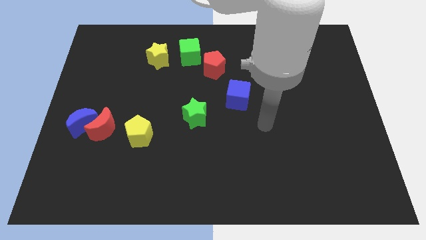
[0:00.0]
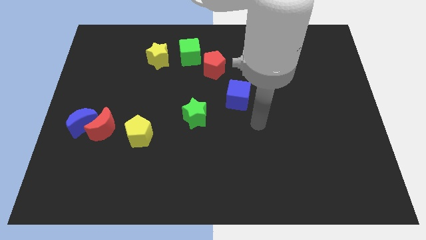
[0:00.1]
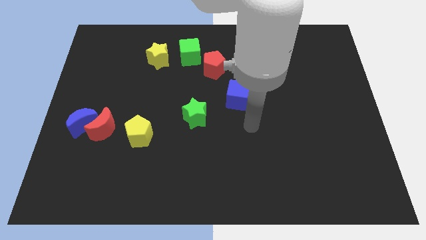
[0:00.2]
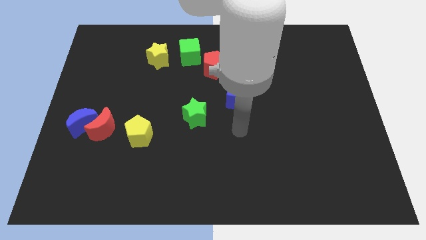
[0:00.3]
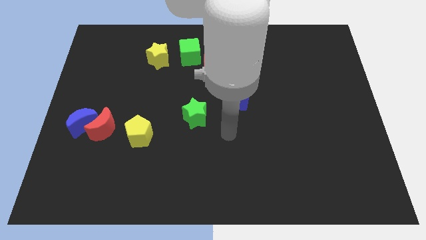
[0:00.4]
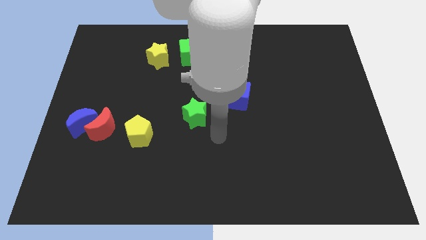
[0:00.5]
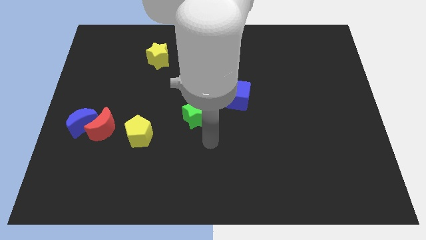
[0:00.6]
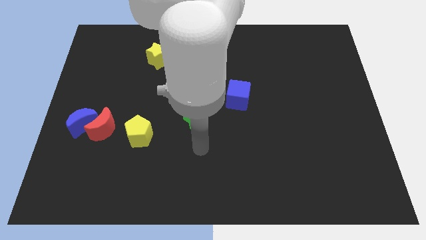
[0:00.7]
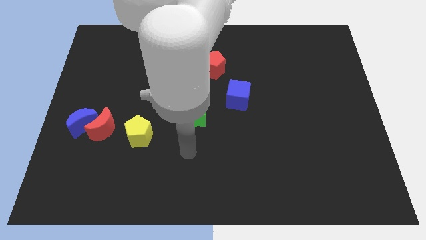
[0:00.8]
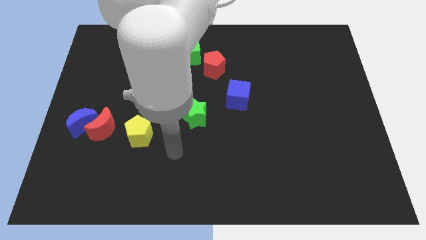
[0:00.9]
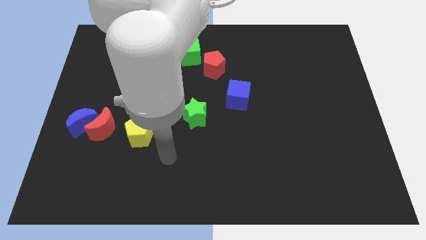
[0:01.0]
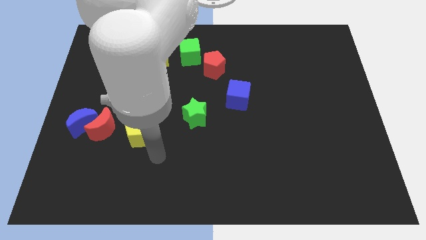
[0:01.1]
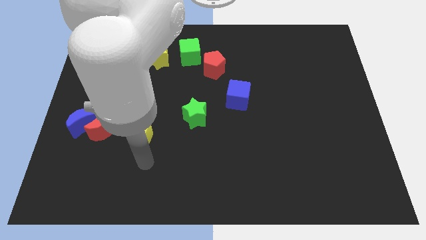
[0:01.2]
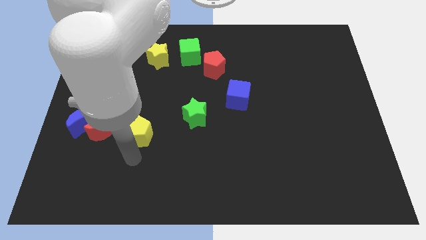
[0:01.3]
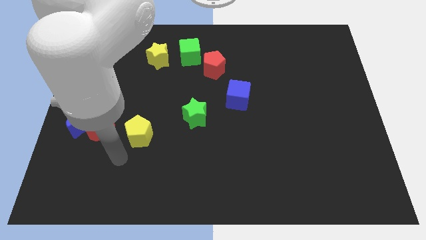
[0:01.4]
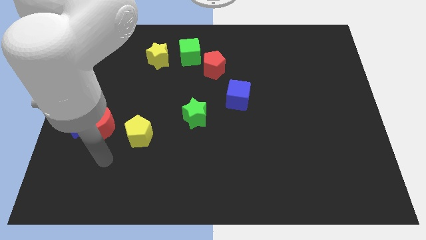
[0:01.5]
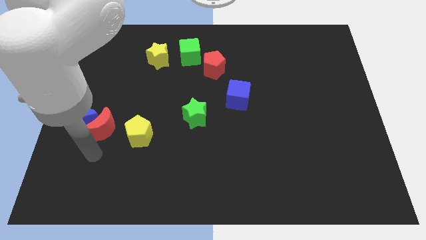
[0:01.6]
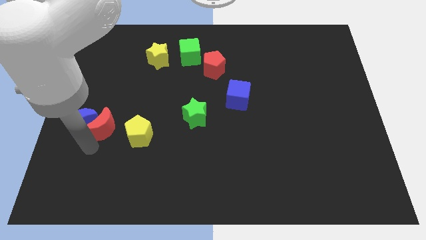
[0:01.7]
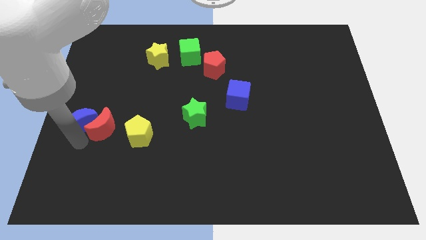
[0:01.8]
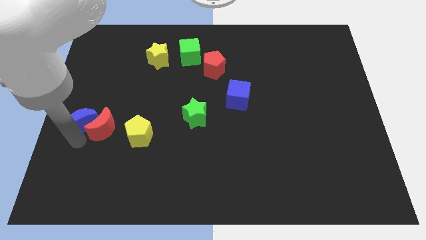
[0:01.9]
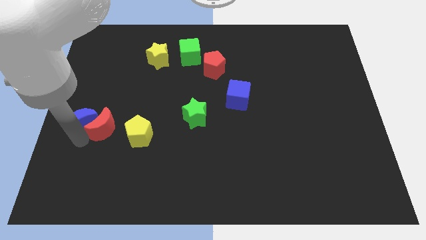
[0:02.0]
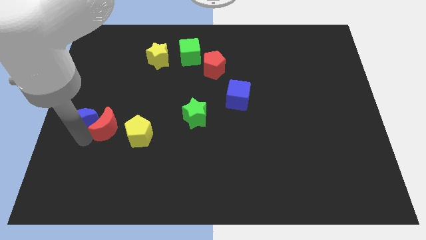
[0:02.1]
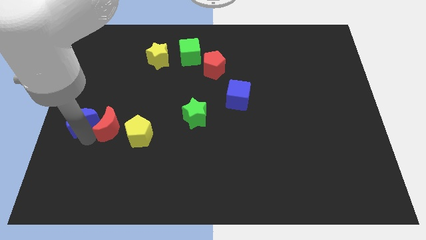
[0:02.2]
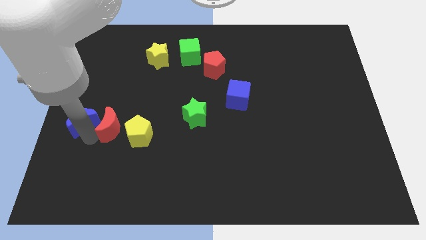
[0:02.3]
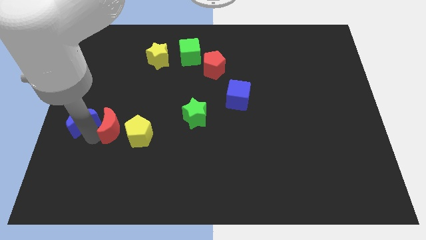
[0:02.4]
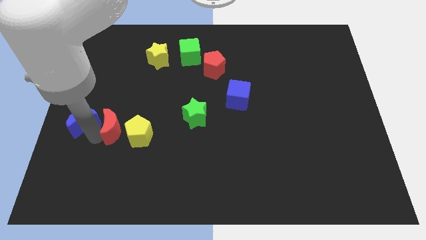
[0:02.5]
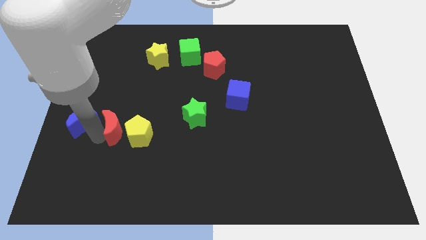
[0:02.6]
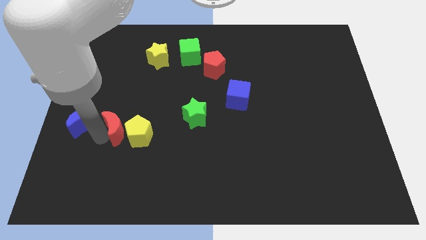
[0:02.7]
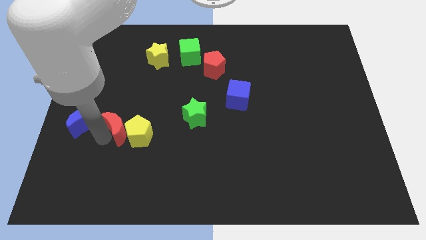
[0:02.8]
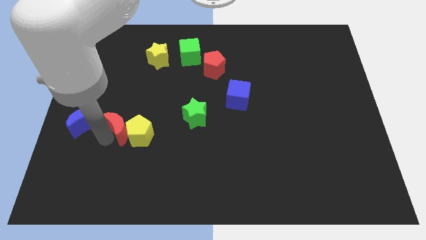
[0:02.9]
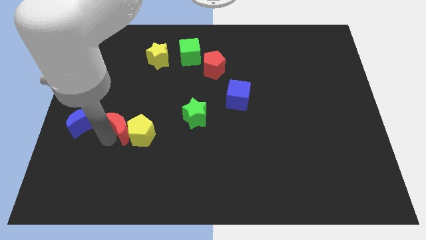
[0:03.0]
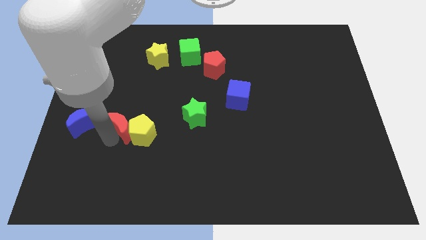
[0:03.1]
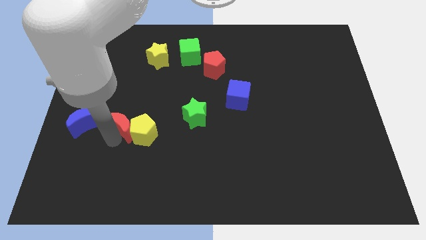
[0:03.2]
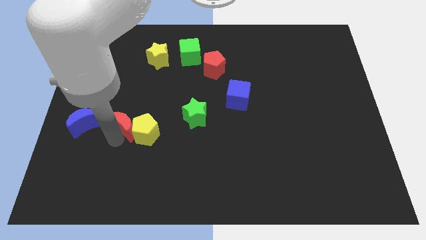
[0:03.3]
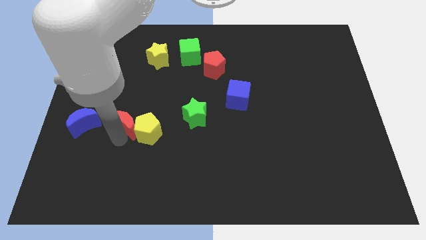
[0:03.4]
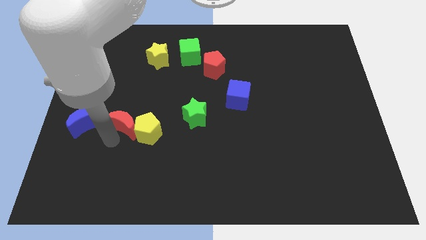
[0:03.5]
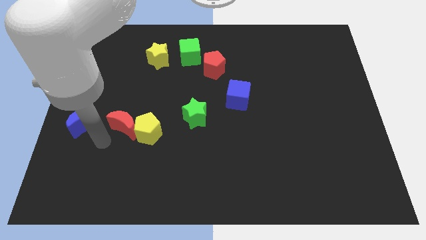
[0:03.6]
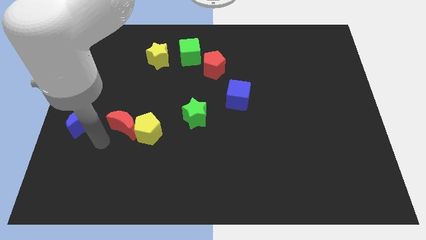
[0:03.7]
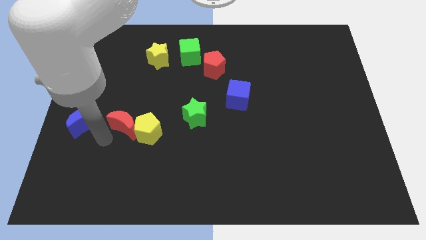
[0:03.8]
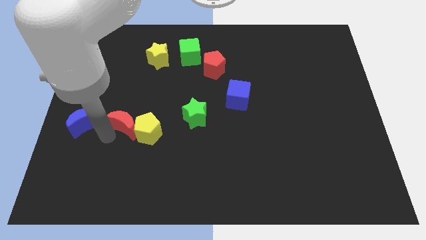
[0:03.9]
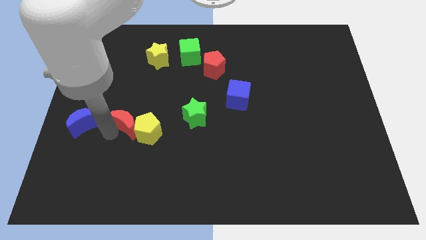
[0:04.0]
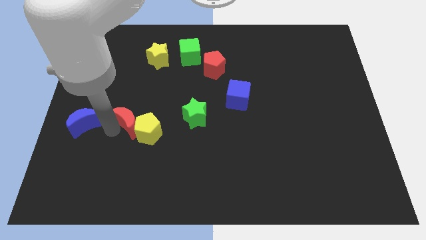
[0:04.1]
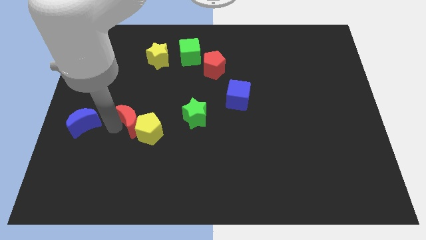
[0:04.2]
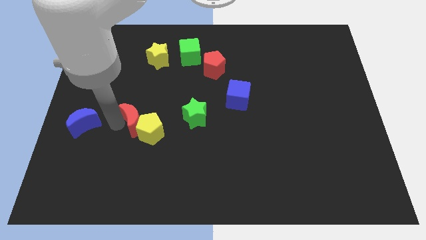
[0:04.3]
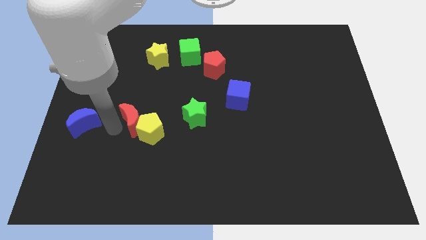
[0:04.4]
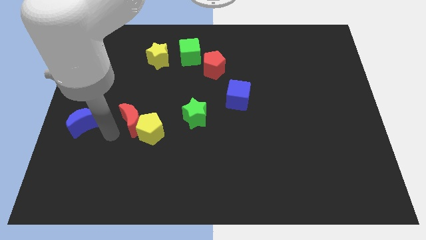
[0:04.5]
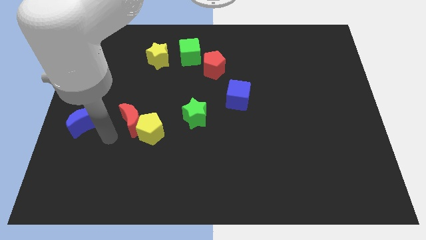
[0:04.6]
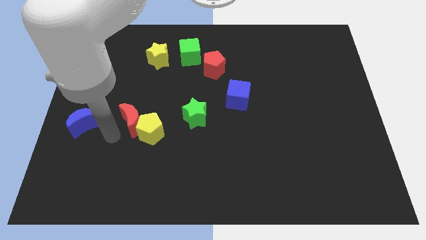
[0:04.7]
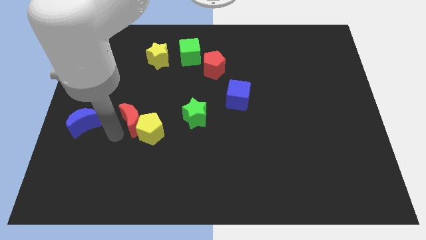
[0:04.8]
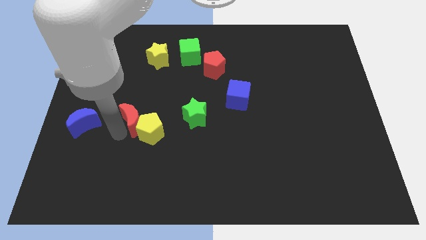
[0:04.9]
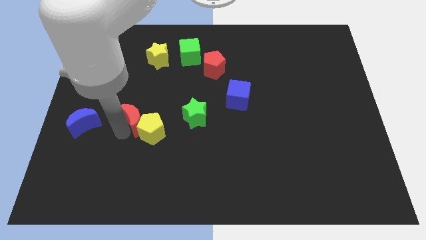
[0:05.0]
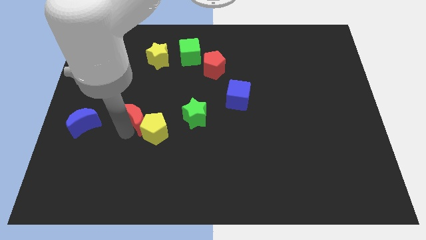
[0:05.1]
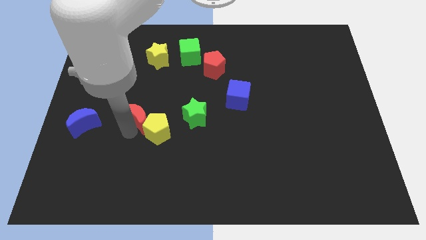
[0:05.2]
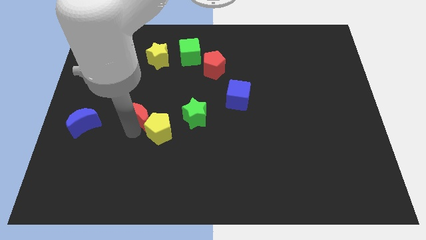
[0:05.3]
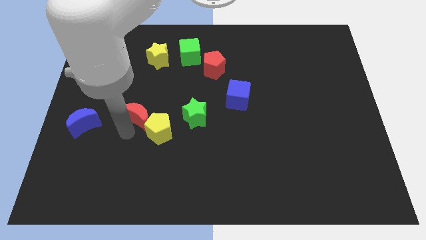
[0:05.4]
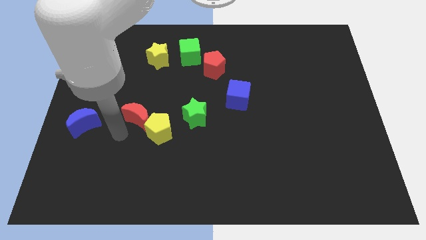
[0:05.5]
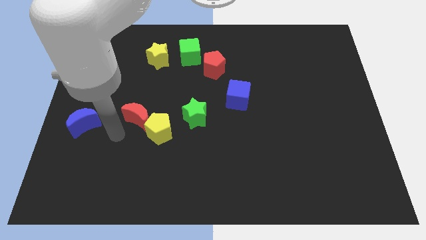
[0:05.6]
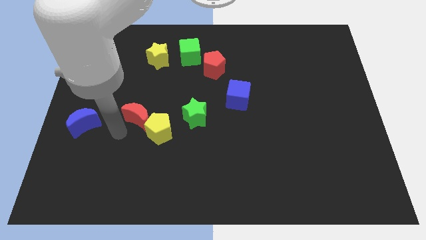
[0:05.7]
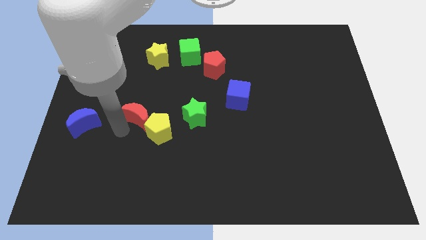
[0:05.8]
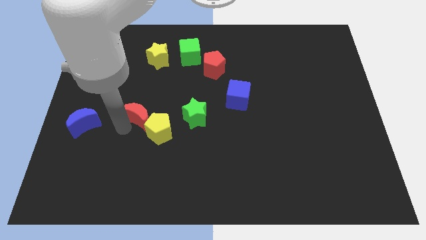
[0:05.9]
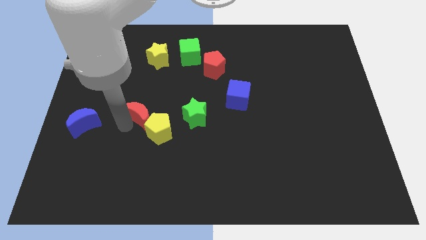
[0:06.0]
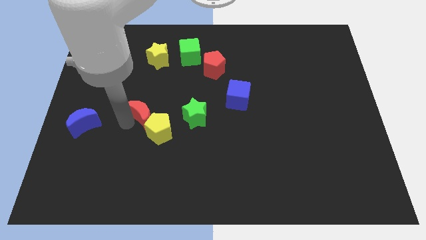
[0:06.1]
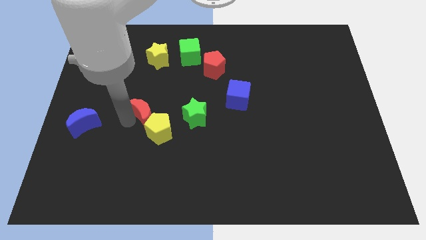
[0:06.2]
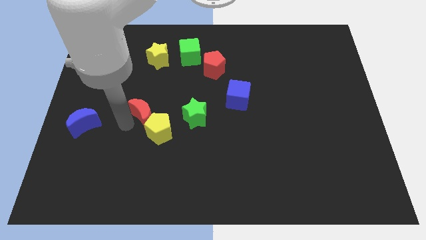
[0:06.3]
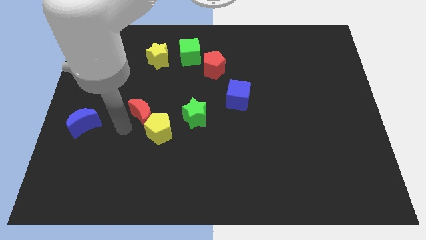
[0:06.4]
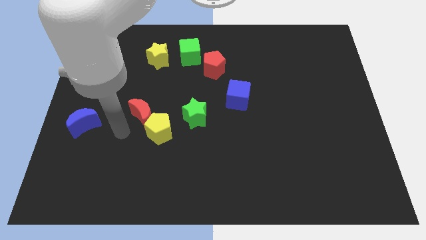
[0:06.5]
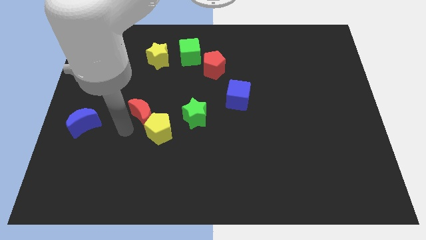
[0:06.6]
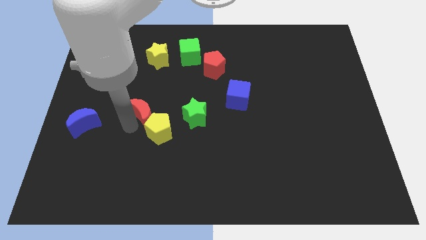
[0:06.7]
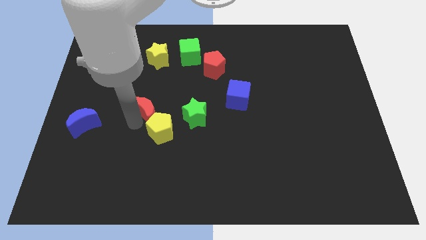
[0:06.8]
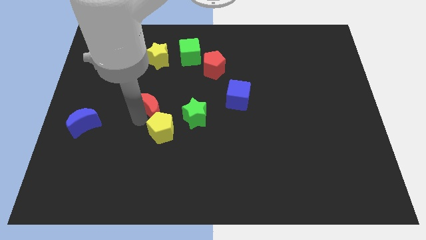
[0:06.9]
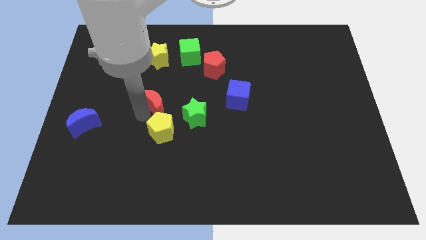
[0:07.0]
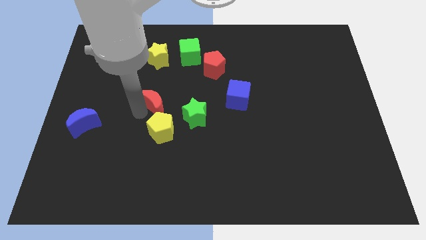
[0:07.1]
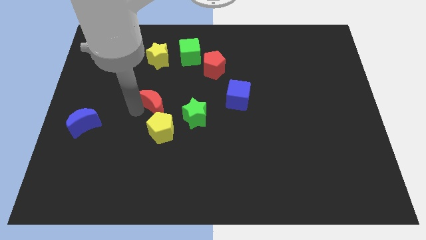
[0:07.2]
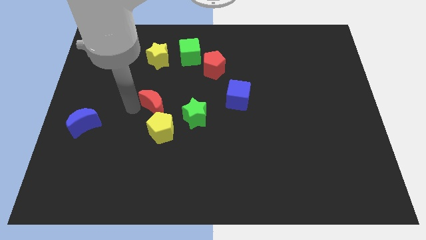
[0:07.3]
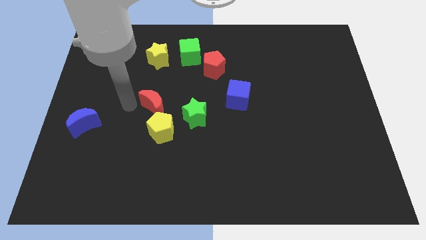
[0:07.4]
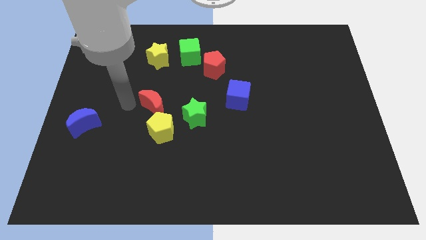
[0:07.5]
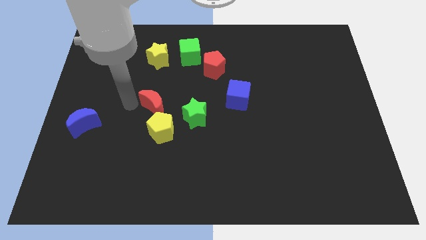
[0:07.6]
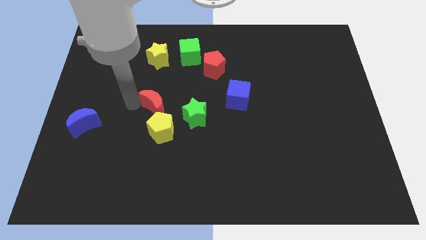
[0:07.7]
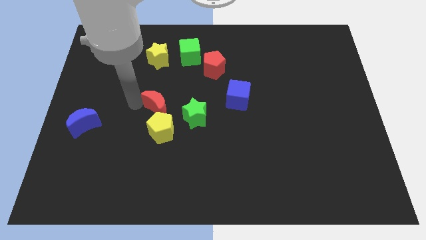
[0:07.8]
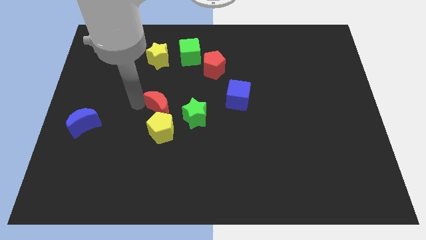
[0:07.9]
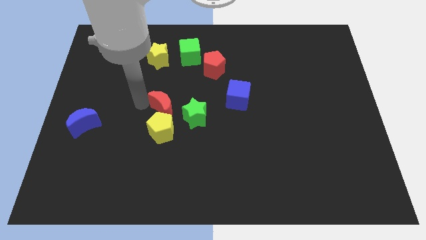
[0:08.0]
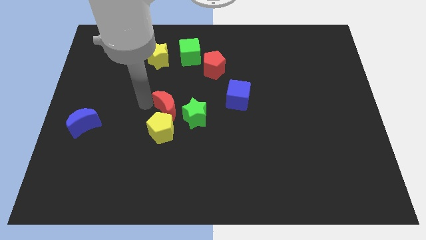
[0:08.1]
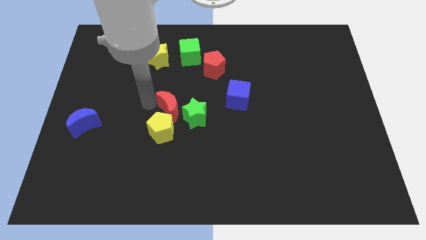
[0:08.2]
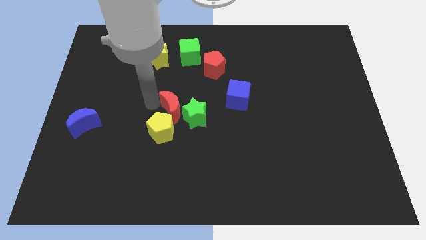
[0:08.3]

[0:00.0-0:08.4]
push the red moon towards the green star
